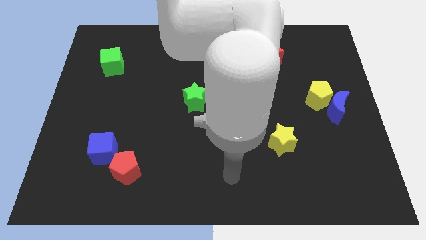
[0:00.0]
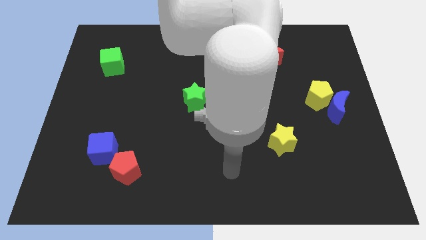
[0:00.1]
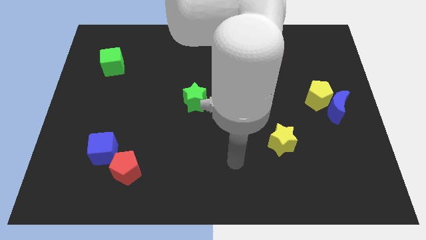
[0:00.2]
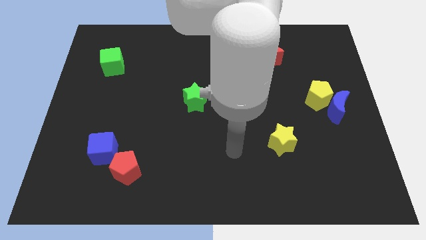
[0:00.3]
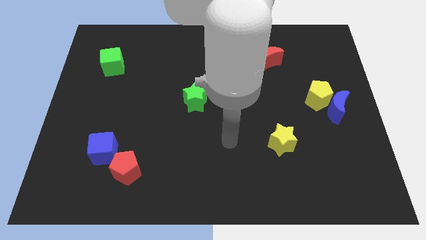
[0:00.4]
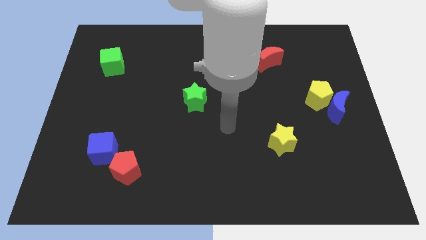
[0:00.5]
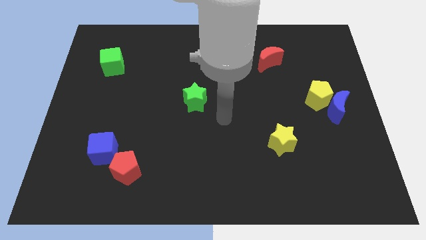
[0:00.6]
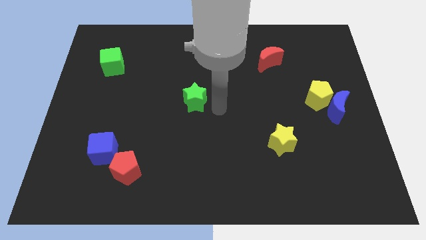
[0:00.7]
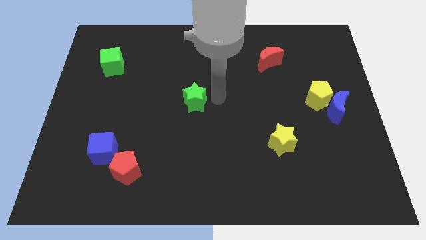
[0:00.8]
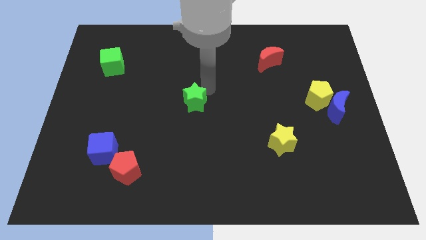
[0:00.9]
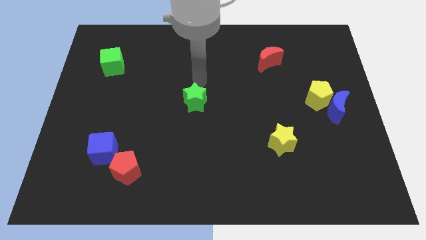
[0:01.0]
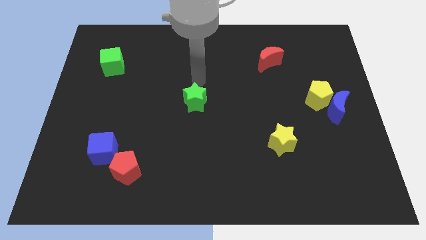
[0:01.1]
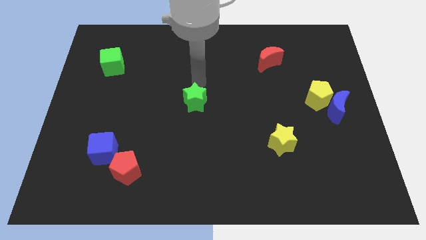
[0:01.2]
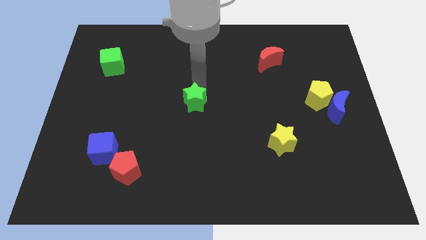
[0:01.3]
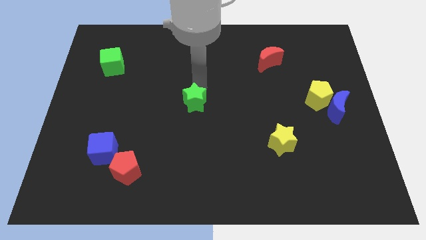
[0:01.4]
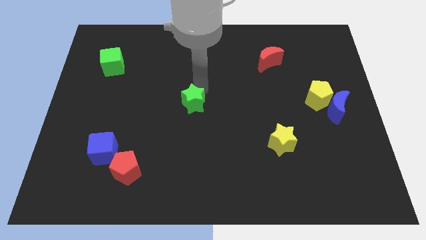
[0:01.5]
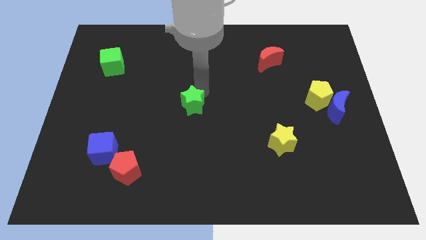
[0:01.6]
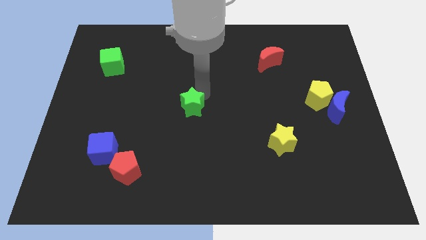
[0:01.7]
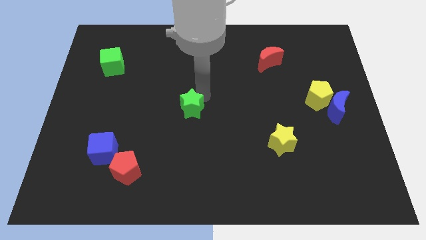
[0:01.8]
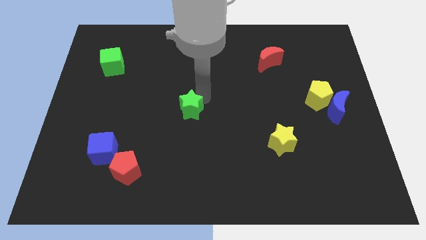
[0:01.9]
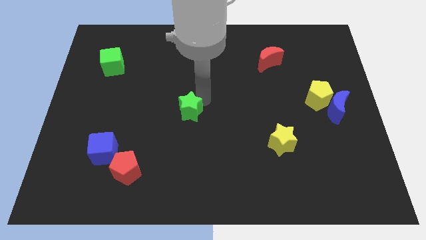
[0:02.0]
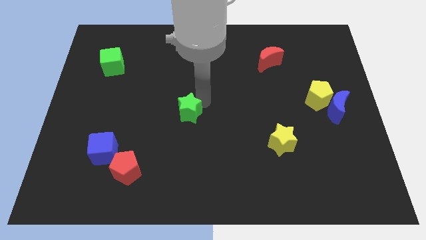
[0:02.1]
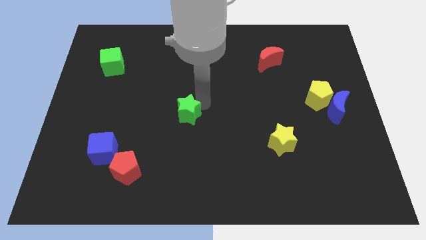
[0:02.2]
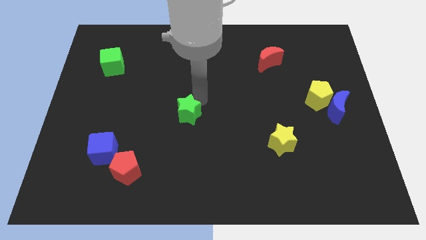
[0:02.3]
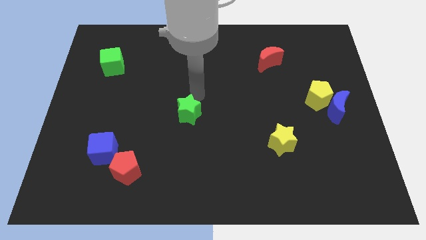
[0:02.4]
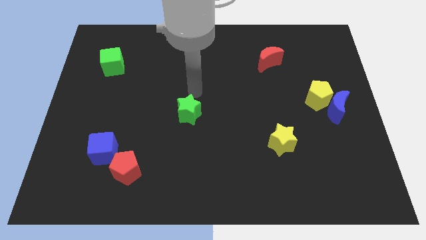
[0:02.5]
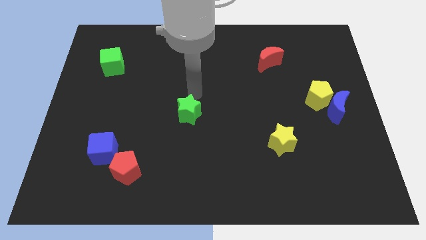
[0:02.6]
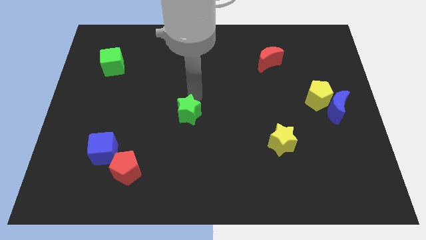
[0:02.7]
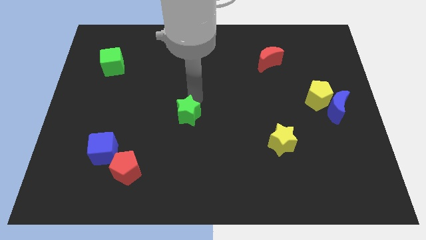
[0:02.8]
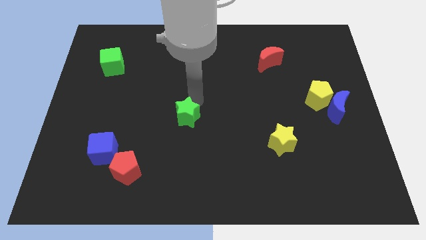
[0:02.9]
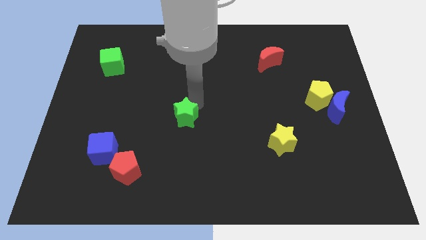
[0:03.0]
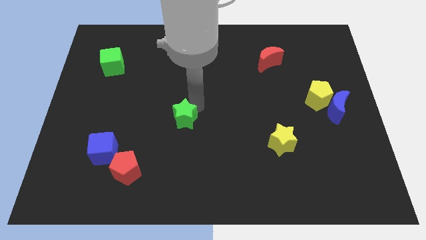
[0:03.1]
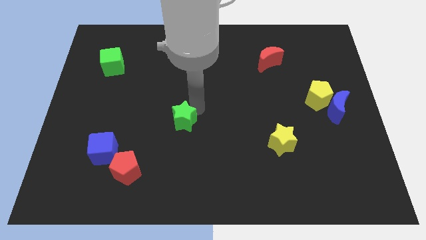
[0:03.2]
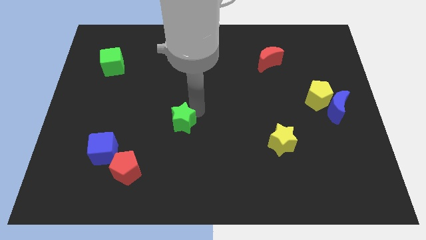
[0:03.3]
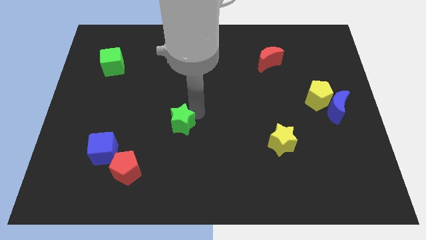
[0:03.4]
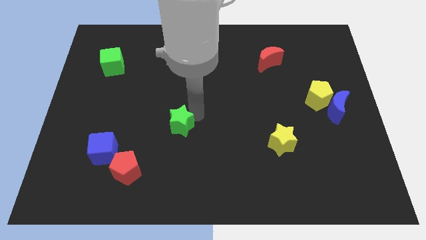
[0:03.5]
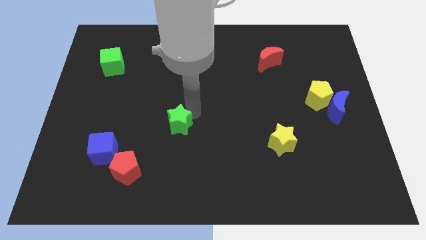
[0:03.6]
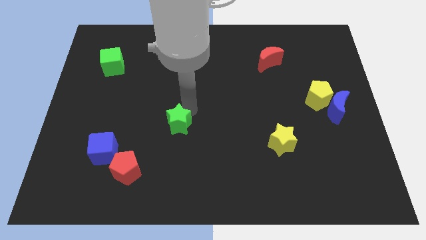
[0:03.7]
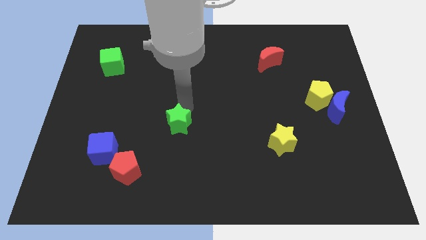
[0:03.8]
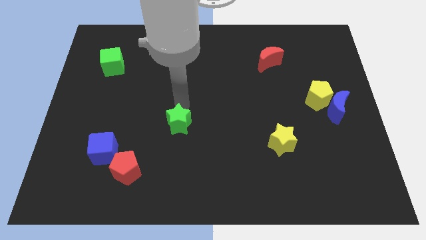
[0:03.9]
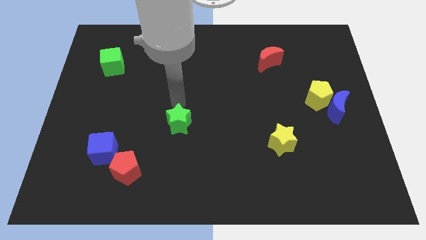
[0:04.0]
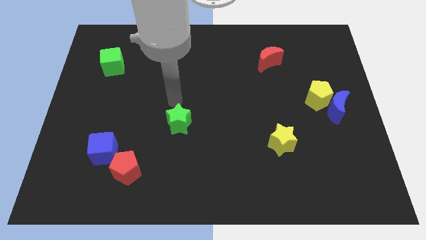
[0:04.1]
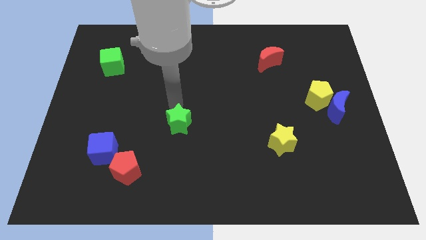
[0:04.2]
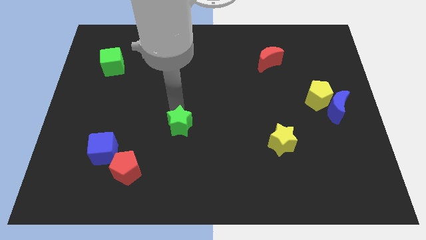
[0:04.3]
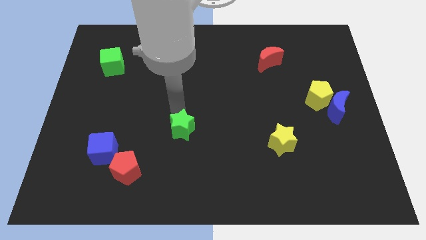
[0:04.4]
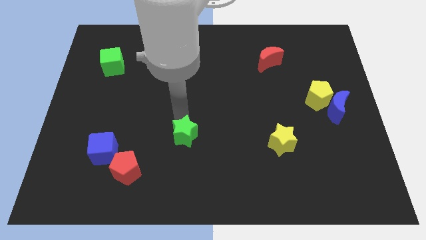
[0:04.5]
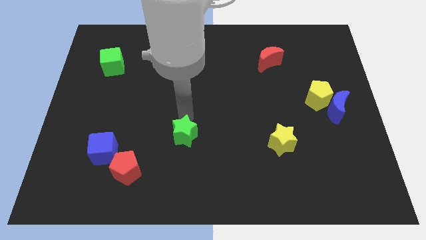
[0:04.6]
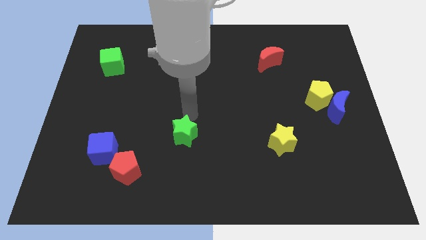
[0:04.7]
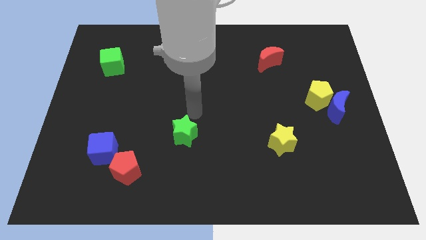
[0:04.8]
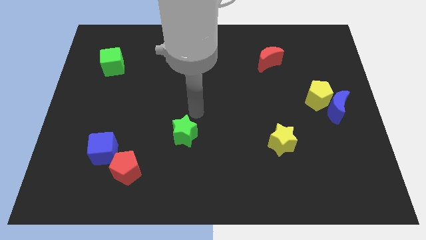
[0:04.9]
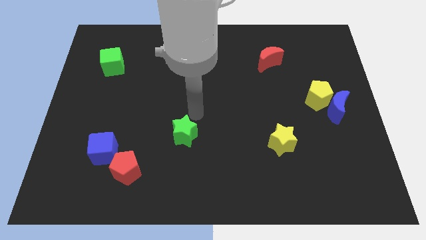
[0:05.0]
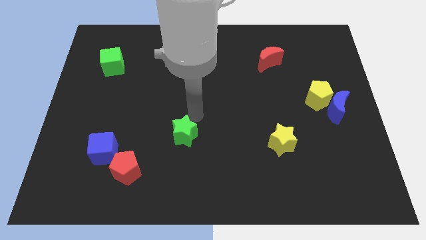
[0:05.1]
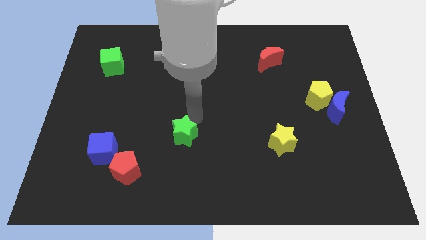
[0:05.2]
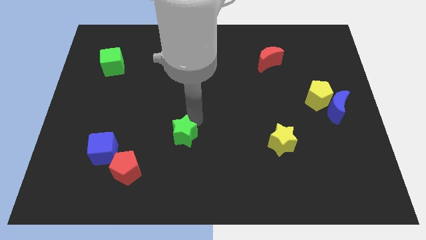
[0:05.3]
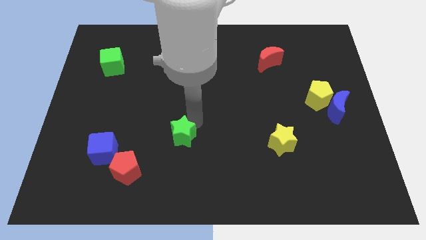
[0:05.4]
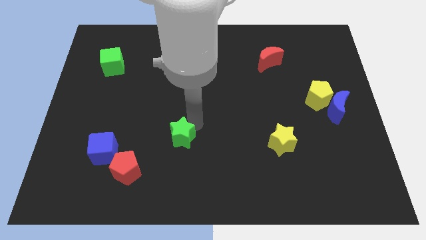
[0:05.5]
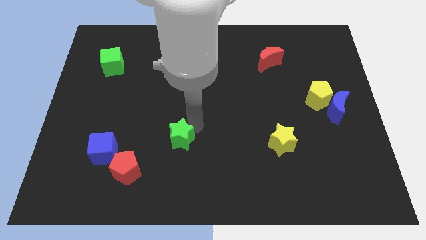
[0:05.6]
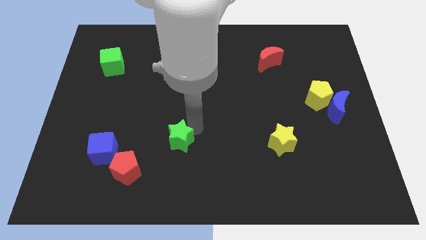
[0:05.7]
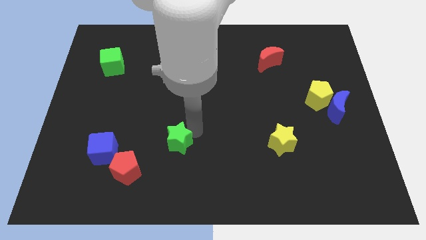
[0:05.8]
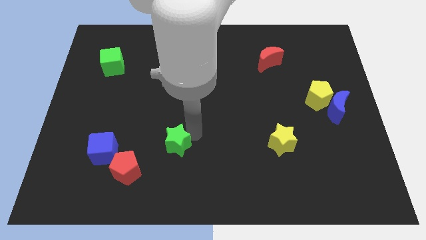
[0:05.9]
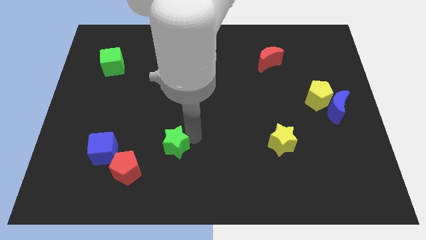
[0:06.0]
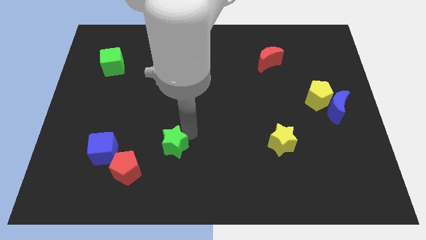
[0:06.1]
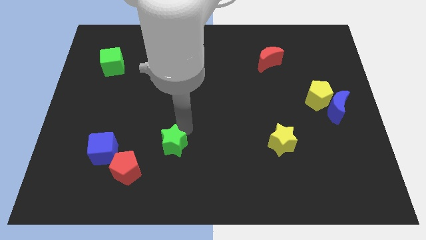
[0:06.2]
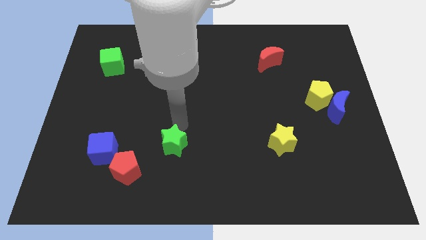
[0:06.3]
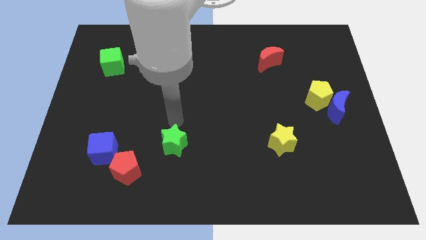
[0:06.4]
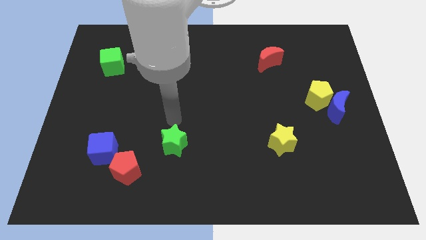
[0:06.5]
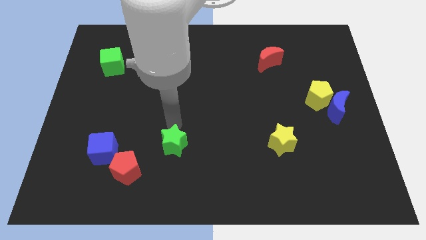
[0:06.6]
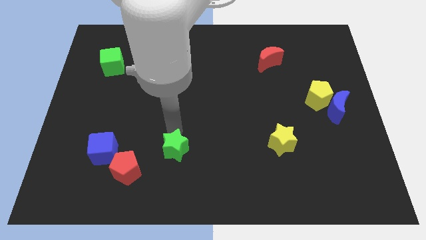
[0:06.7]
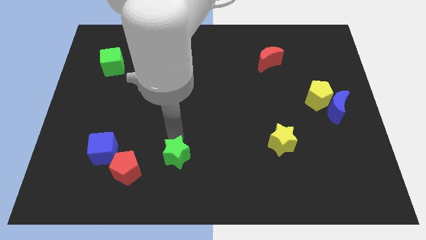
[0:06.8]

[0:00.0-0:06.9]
move the green star to the right of the red pentagon

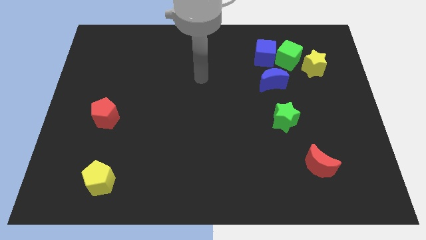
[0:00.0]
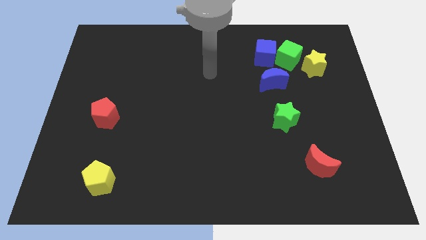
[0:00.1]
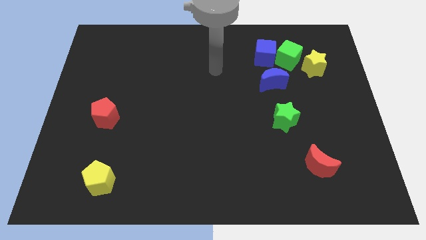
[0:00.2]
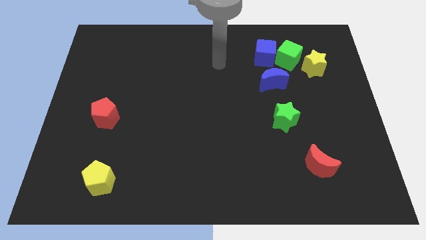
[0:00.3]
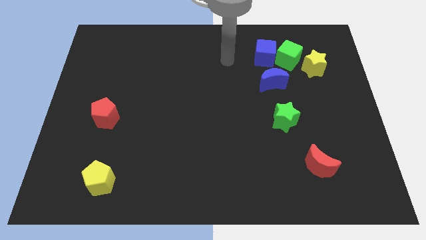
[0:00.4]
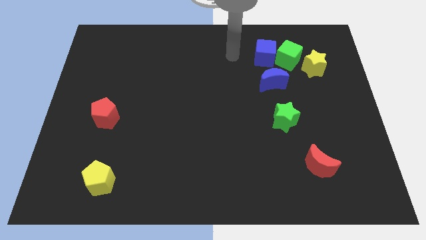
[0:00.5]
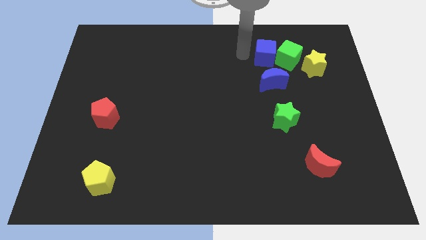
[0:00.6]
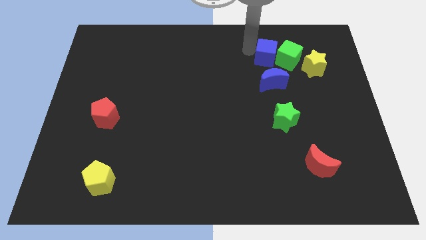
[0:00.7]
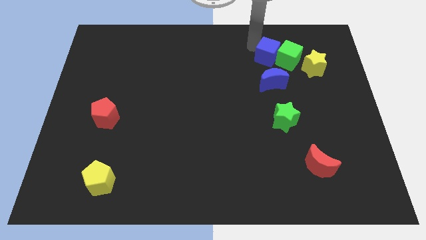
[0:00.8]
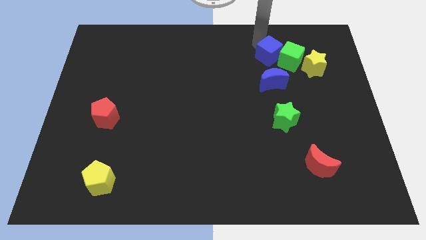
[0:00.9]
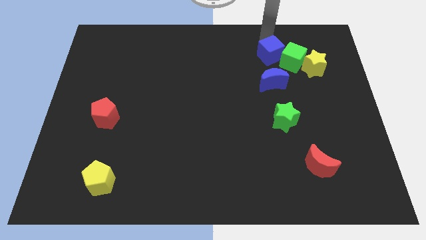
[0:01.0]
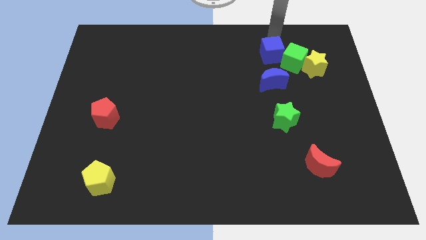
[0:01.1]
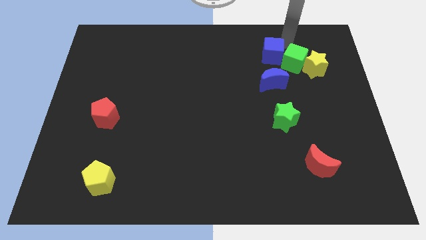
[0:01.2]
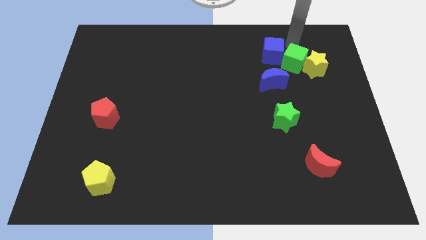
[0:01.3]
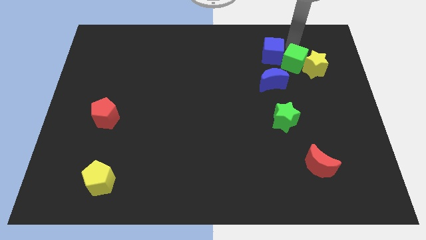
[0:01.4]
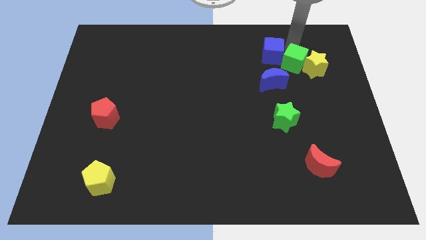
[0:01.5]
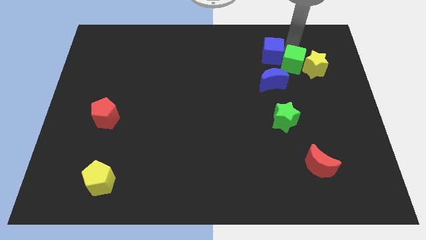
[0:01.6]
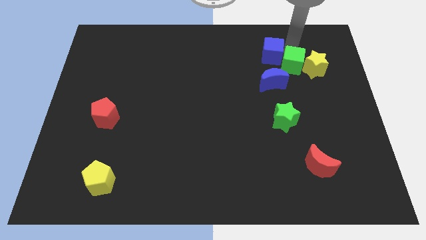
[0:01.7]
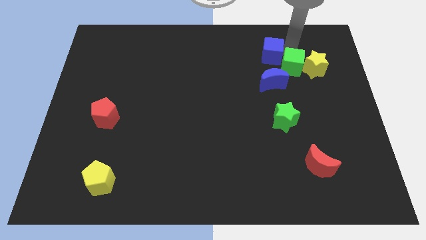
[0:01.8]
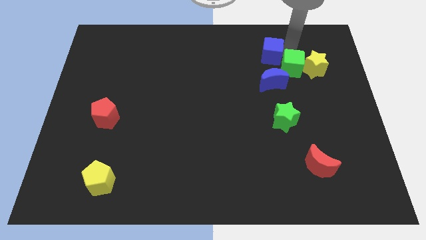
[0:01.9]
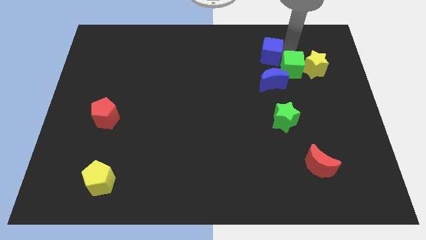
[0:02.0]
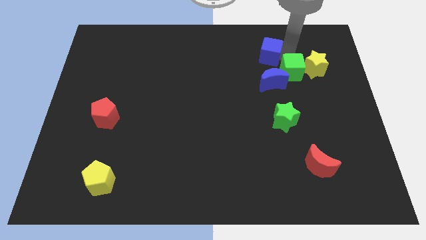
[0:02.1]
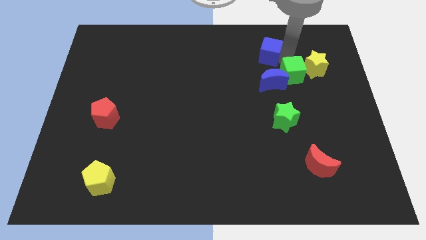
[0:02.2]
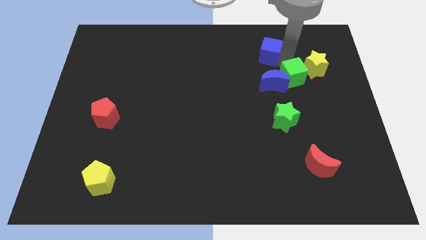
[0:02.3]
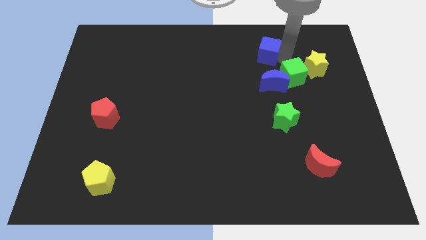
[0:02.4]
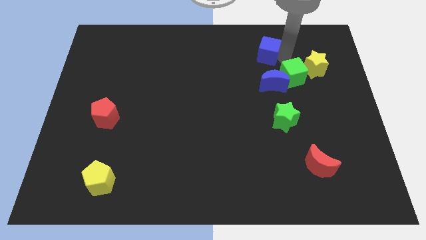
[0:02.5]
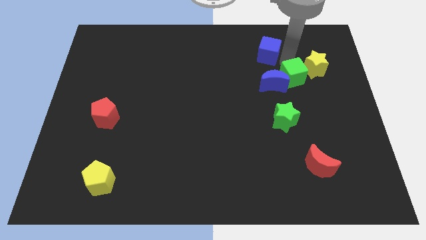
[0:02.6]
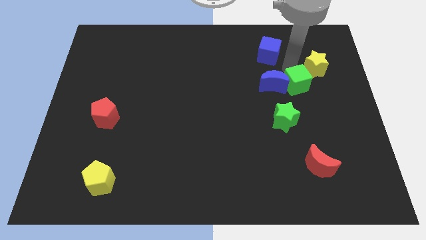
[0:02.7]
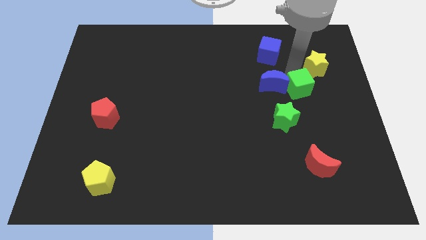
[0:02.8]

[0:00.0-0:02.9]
slide the green cube to the top right side of the green star
